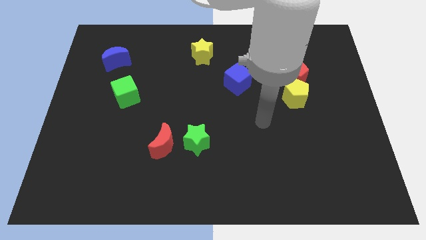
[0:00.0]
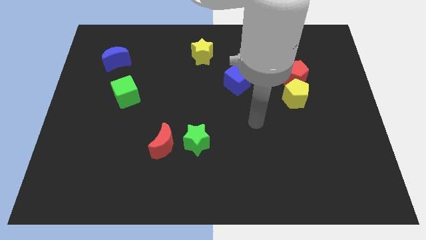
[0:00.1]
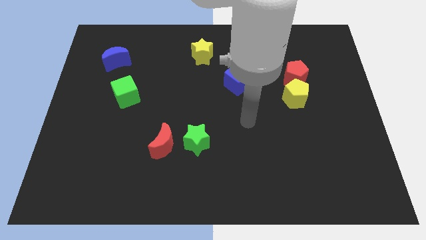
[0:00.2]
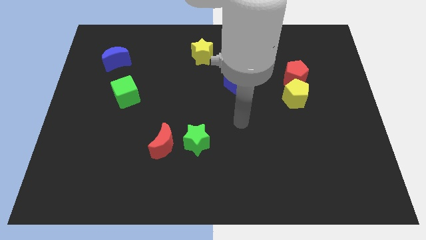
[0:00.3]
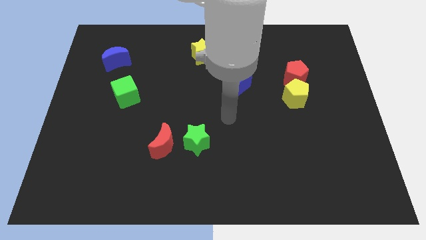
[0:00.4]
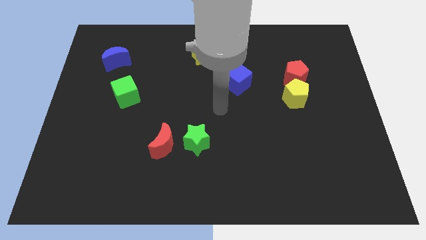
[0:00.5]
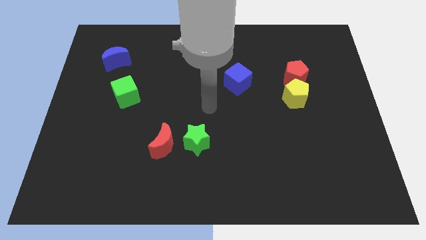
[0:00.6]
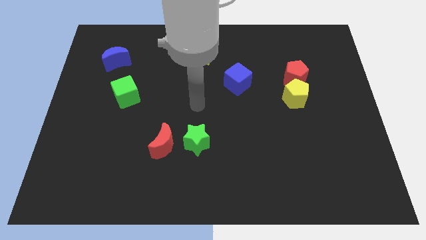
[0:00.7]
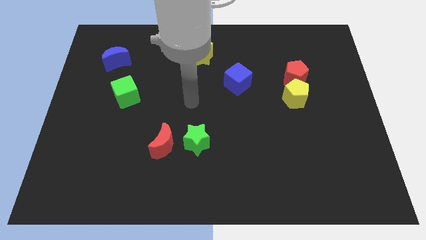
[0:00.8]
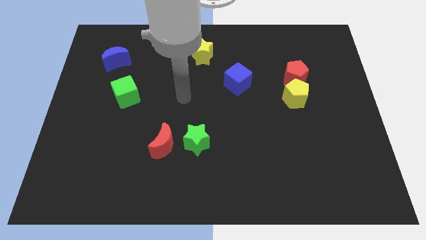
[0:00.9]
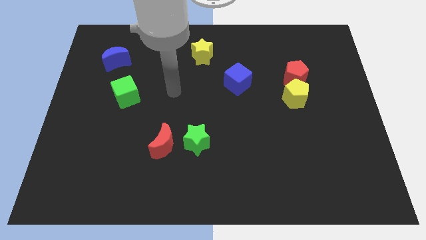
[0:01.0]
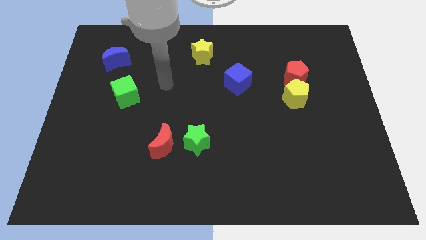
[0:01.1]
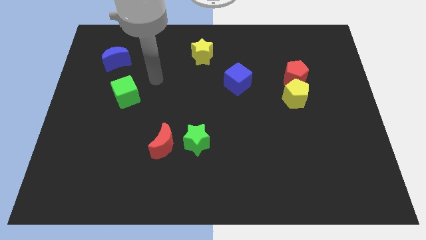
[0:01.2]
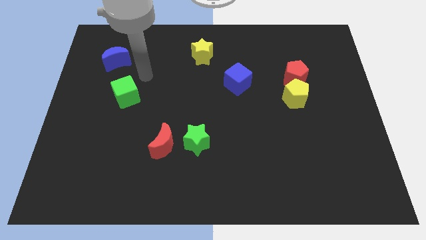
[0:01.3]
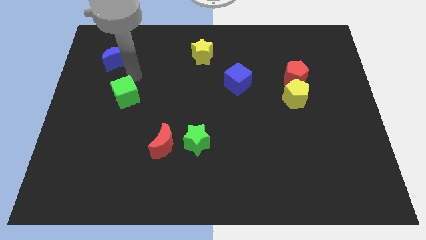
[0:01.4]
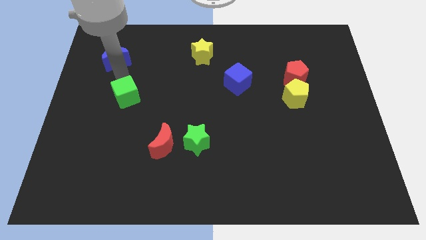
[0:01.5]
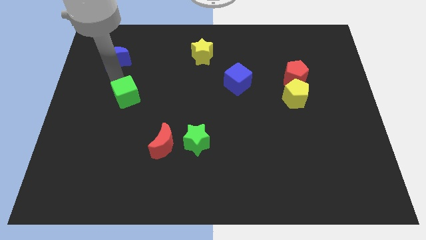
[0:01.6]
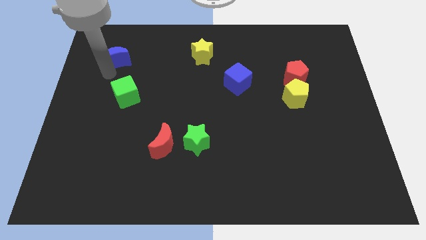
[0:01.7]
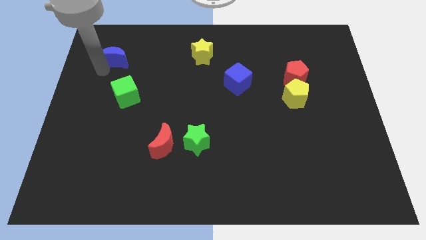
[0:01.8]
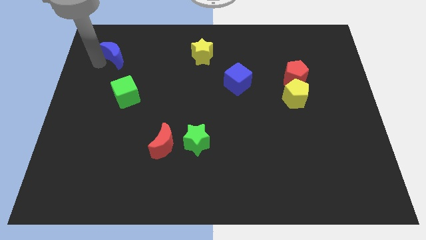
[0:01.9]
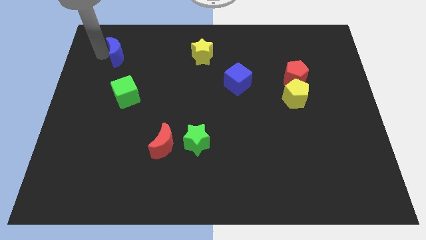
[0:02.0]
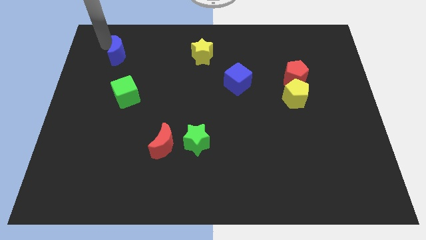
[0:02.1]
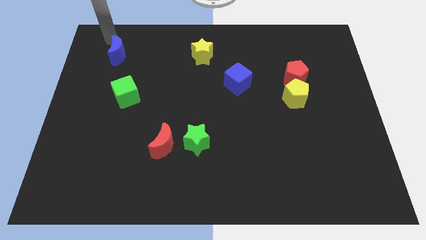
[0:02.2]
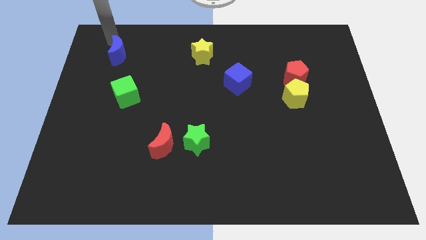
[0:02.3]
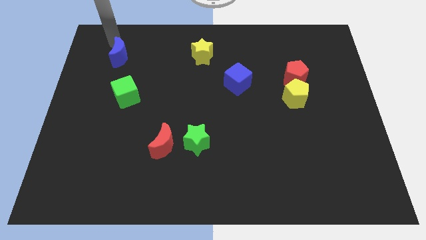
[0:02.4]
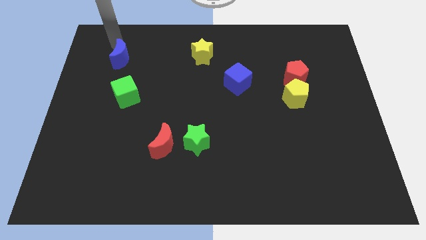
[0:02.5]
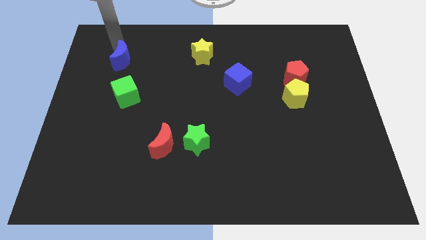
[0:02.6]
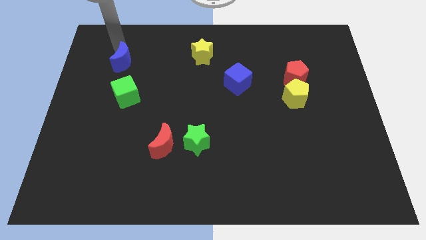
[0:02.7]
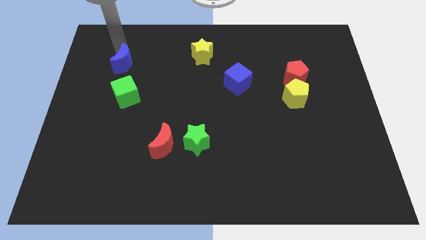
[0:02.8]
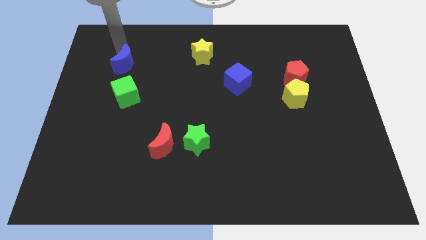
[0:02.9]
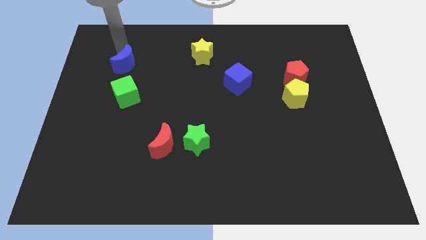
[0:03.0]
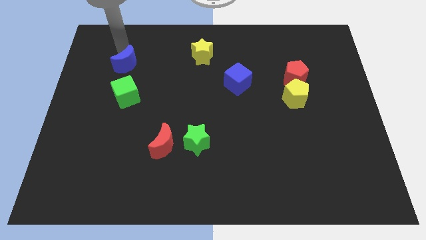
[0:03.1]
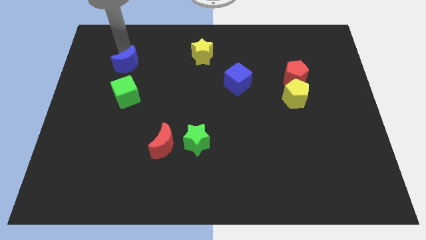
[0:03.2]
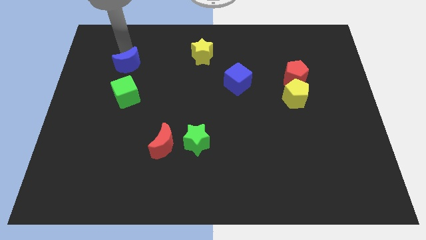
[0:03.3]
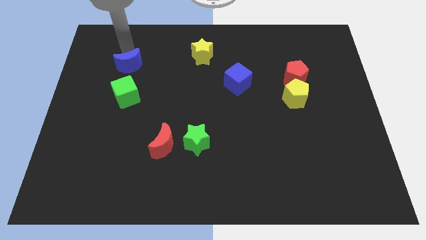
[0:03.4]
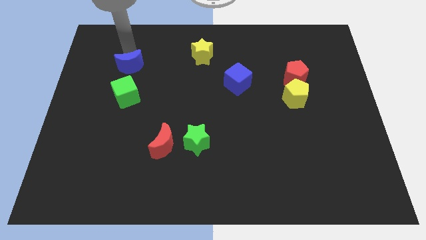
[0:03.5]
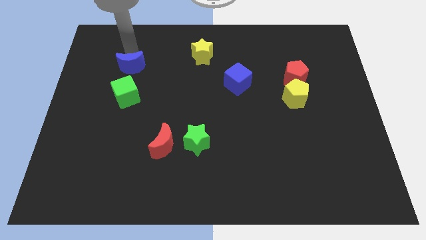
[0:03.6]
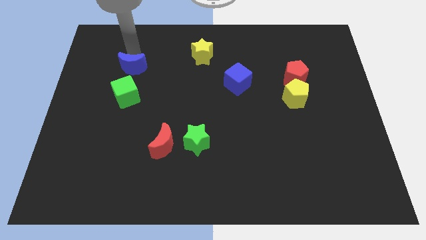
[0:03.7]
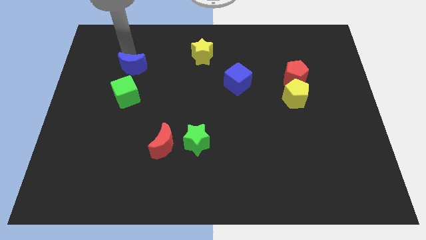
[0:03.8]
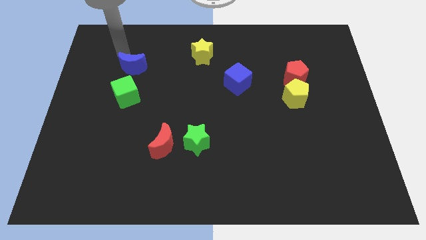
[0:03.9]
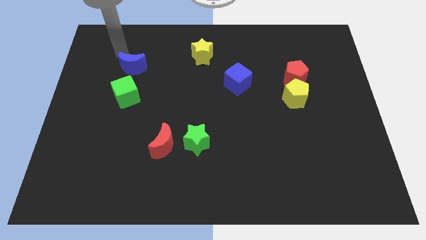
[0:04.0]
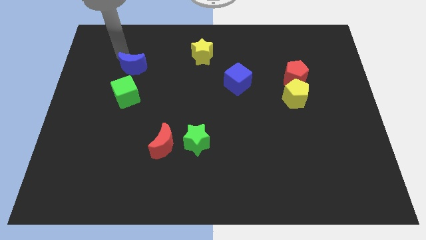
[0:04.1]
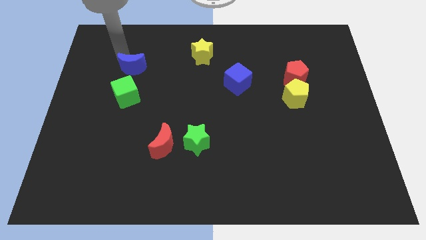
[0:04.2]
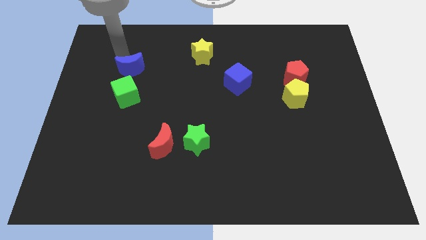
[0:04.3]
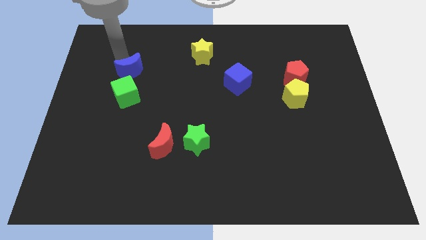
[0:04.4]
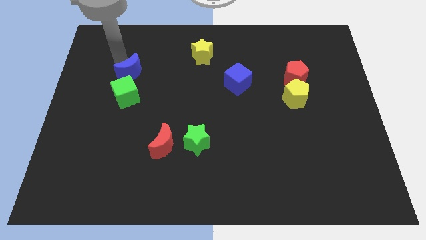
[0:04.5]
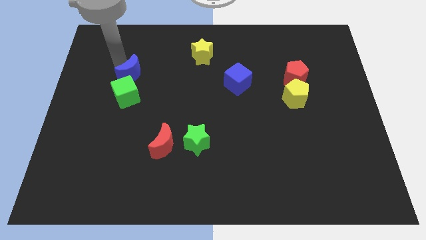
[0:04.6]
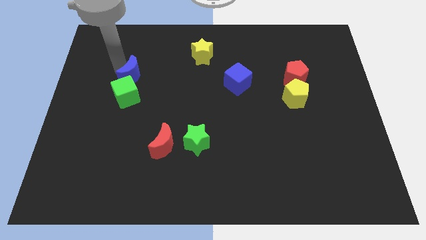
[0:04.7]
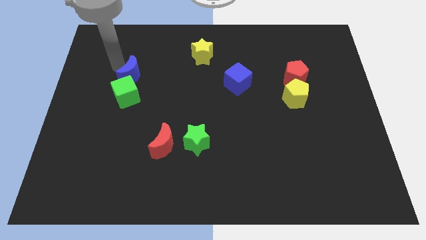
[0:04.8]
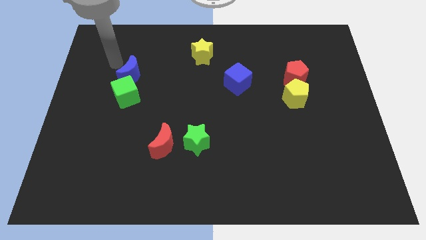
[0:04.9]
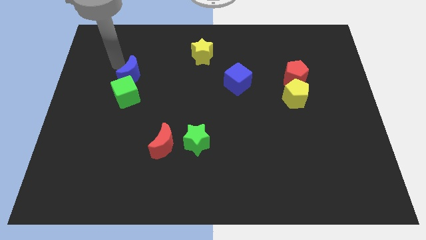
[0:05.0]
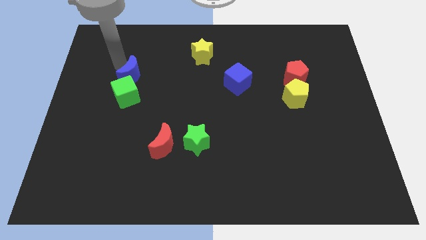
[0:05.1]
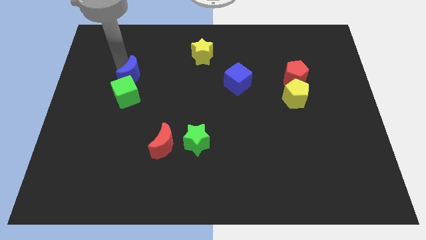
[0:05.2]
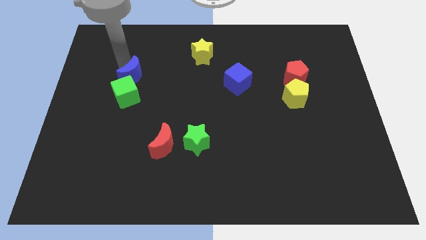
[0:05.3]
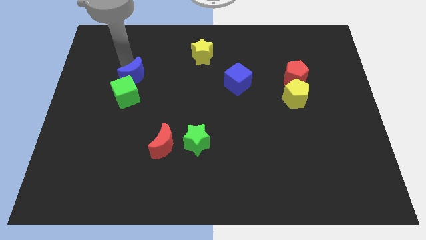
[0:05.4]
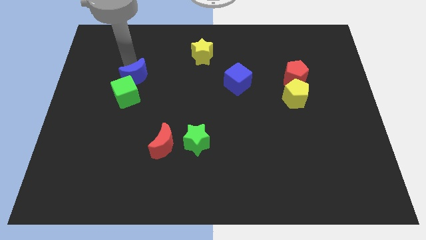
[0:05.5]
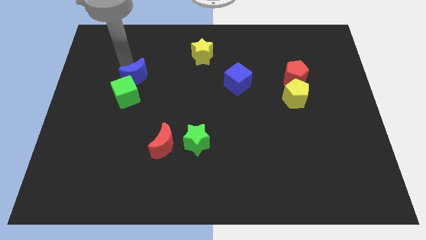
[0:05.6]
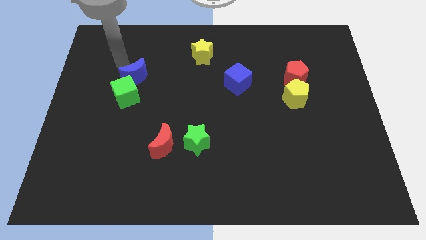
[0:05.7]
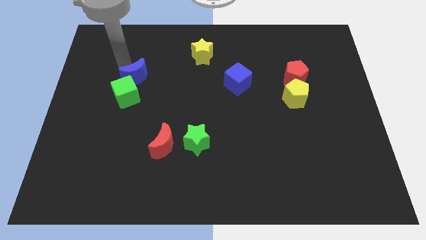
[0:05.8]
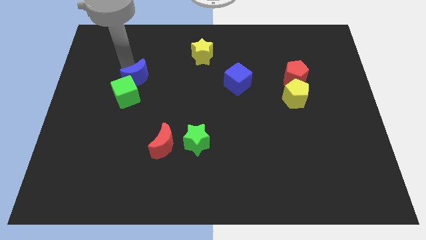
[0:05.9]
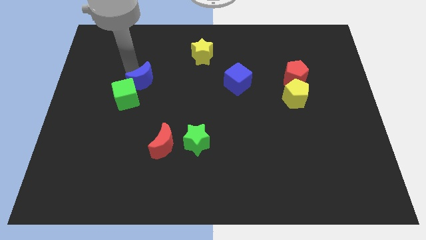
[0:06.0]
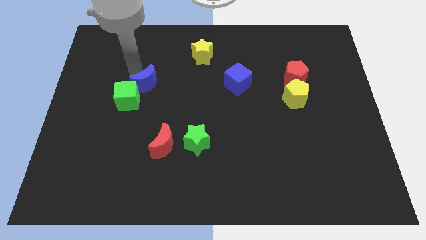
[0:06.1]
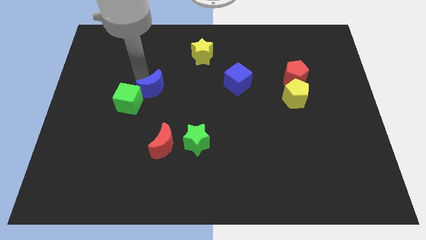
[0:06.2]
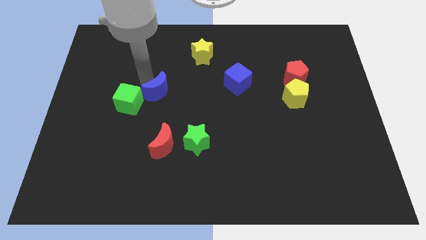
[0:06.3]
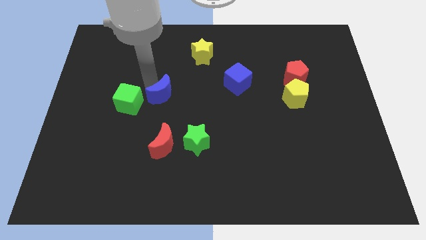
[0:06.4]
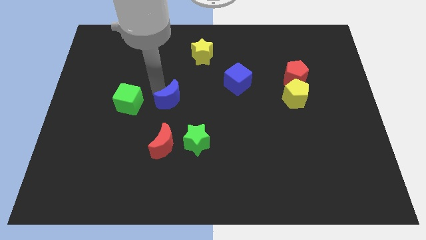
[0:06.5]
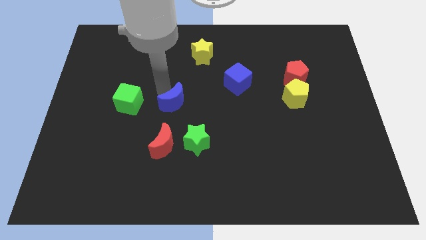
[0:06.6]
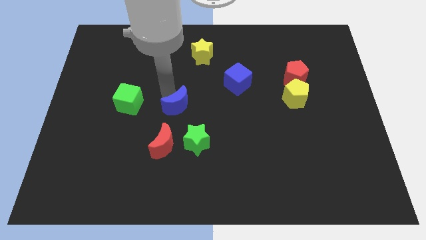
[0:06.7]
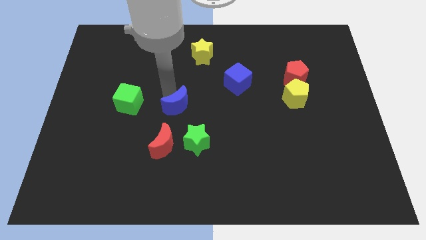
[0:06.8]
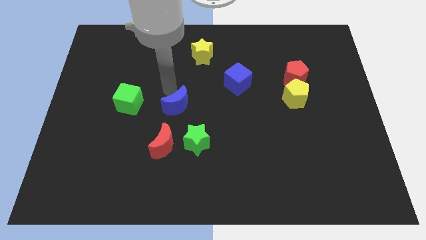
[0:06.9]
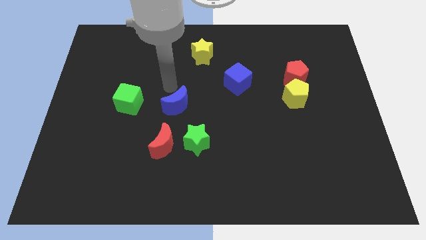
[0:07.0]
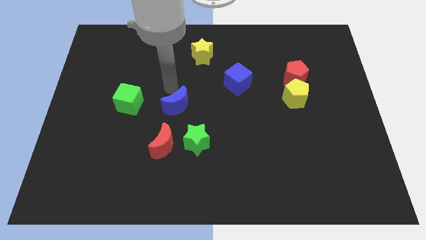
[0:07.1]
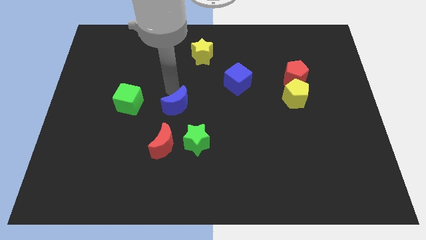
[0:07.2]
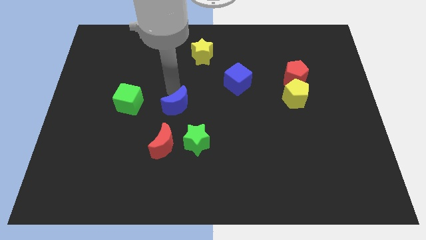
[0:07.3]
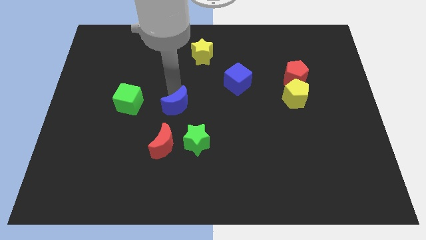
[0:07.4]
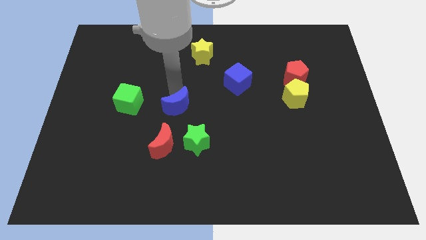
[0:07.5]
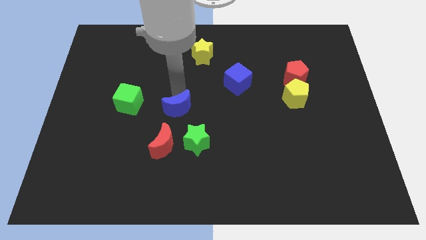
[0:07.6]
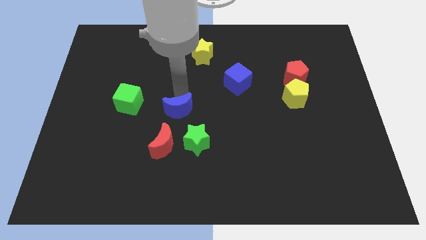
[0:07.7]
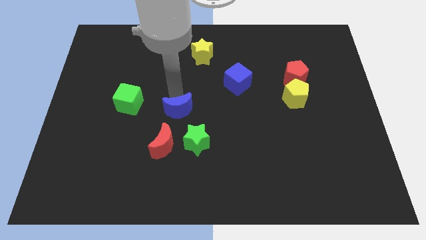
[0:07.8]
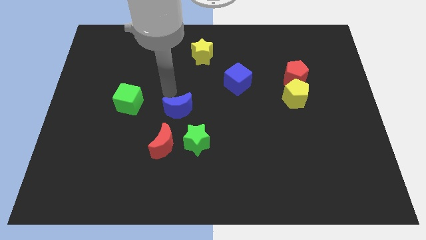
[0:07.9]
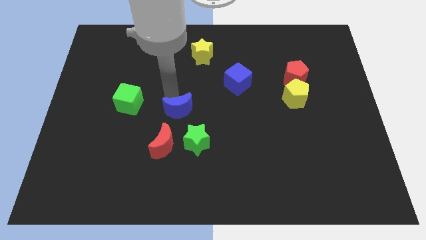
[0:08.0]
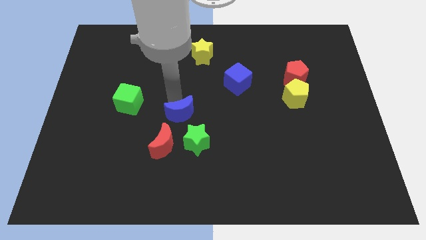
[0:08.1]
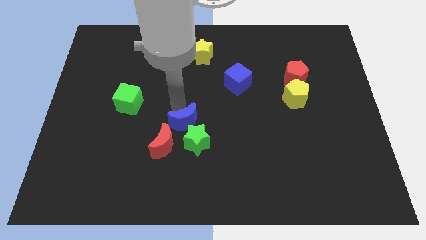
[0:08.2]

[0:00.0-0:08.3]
put the blue moon to the green star
